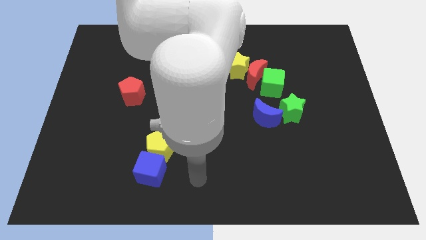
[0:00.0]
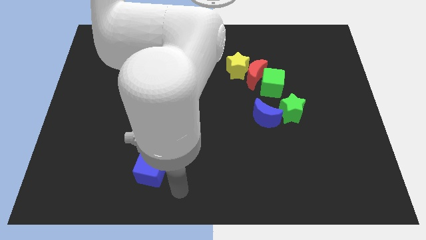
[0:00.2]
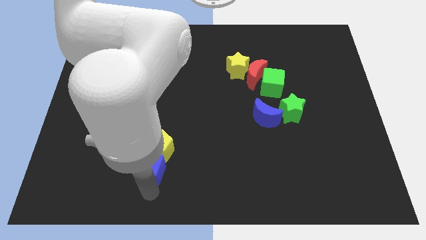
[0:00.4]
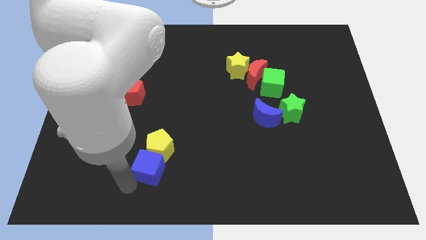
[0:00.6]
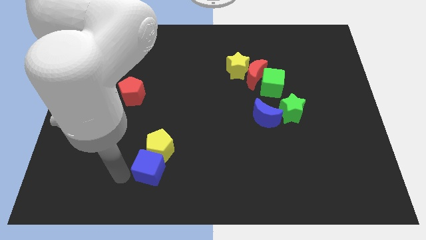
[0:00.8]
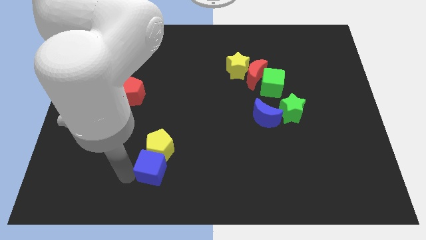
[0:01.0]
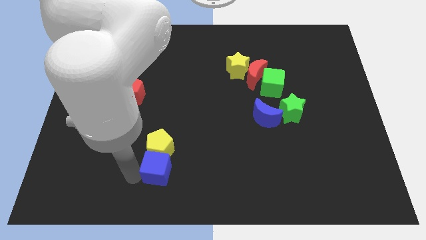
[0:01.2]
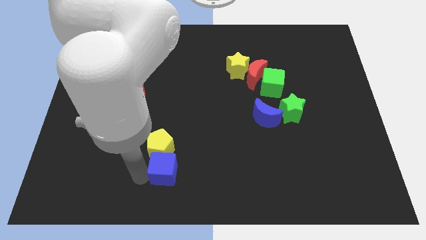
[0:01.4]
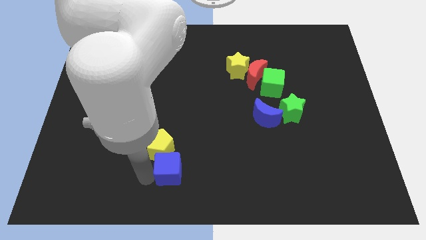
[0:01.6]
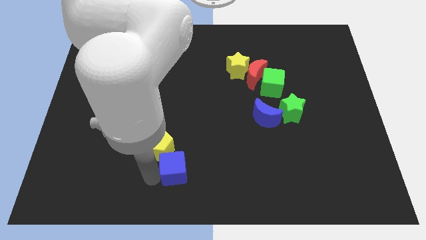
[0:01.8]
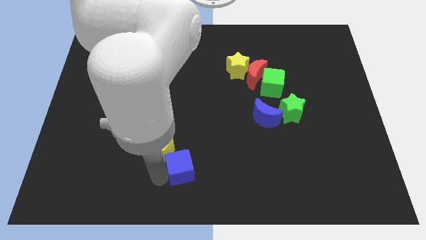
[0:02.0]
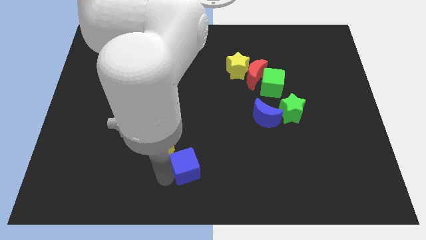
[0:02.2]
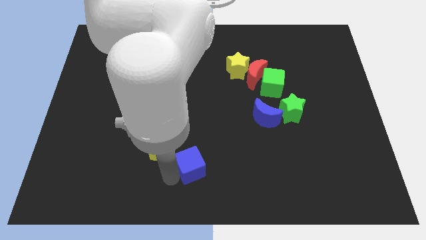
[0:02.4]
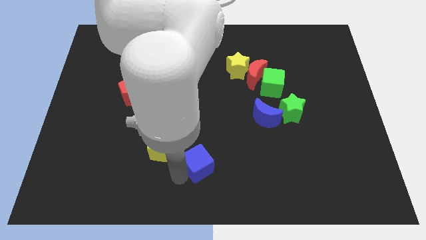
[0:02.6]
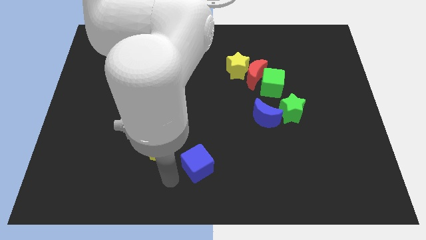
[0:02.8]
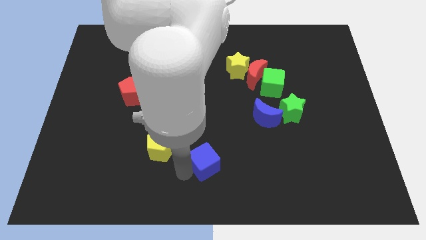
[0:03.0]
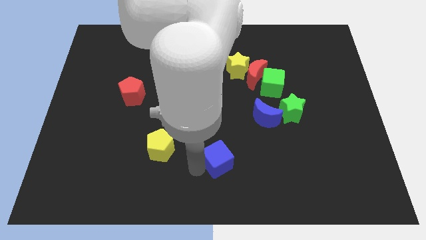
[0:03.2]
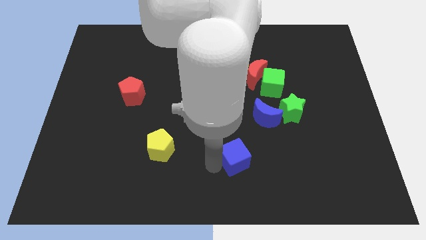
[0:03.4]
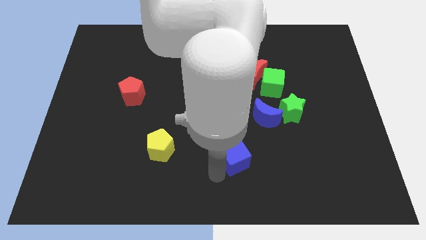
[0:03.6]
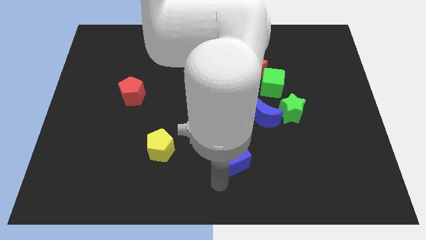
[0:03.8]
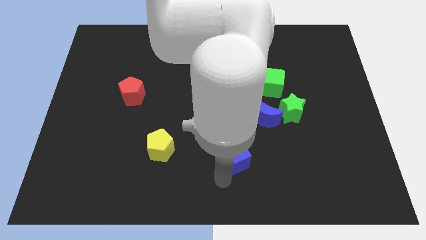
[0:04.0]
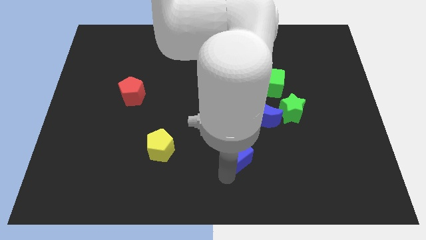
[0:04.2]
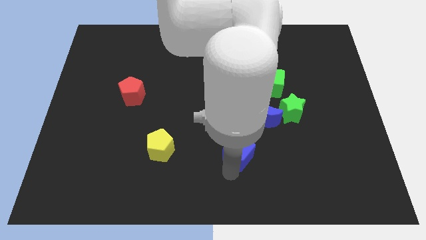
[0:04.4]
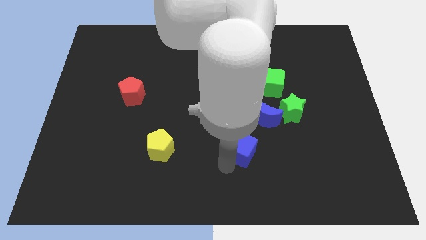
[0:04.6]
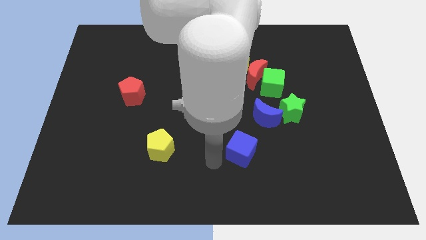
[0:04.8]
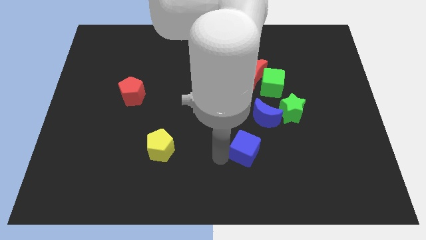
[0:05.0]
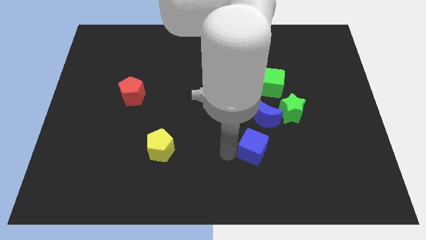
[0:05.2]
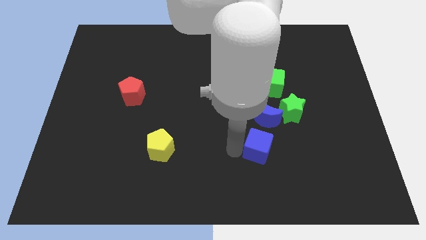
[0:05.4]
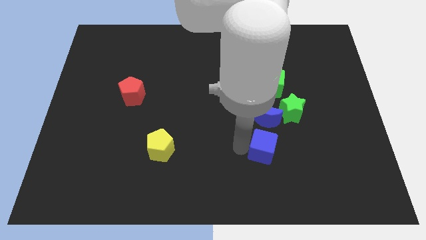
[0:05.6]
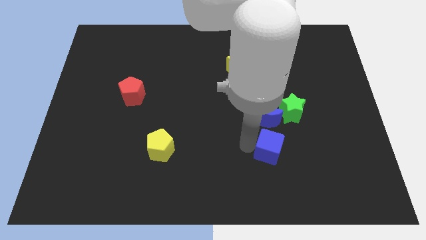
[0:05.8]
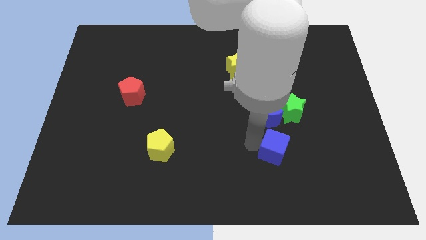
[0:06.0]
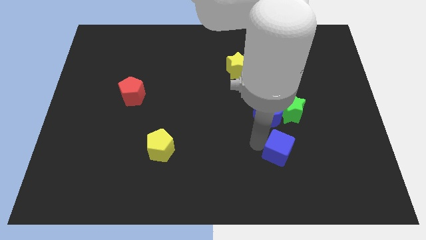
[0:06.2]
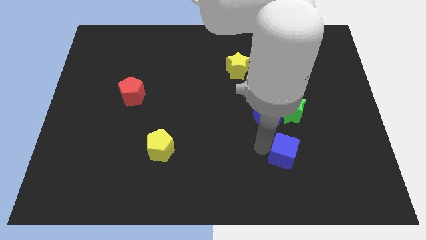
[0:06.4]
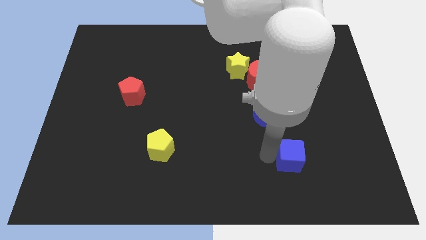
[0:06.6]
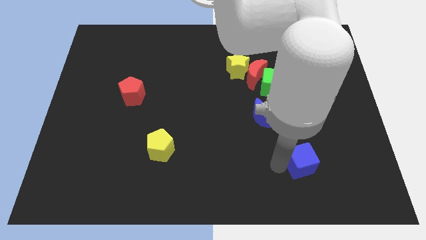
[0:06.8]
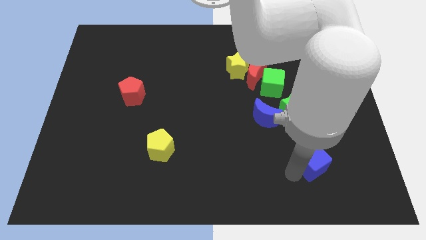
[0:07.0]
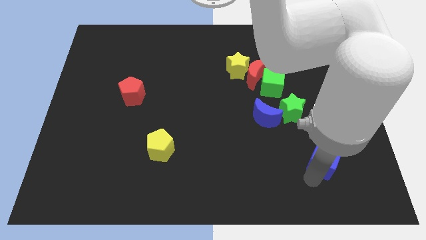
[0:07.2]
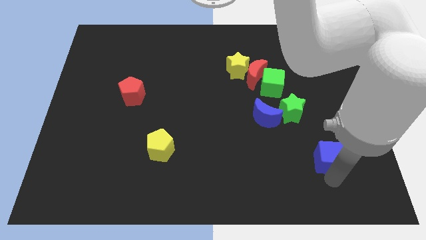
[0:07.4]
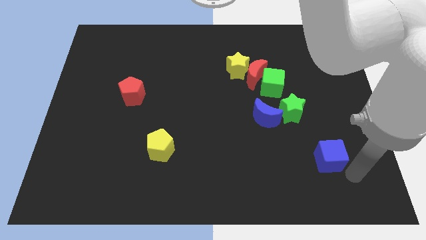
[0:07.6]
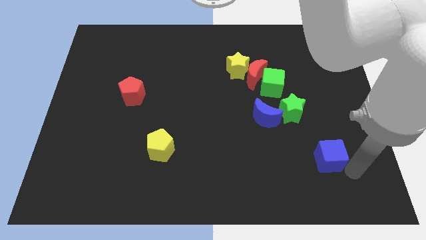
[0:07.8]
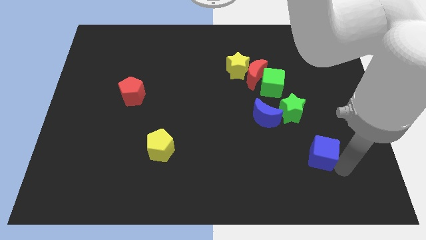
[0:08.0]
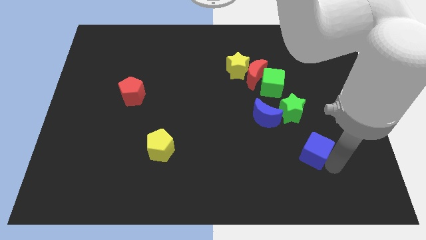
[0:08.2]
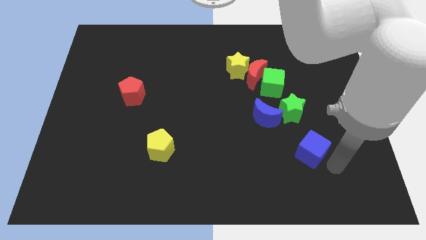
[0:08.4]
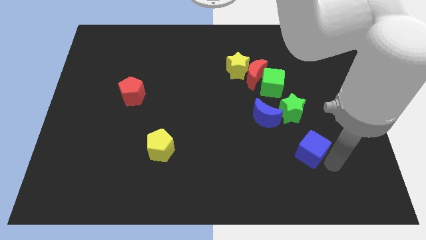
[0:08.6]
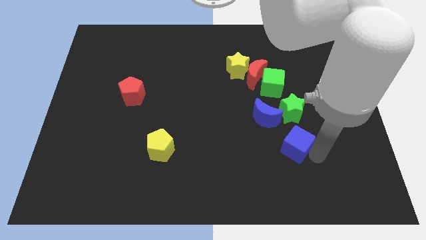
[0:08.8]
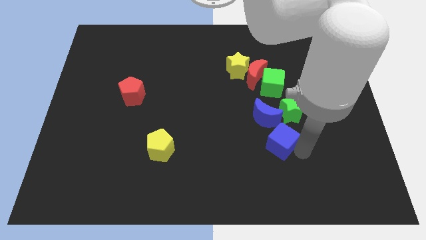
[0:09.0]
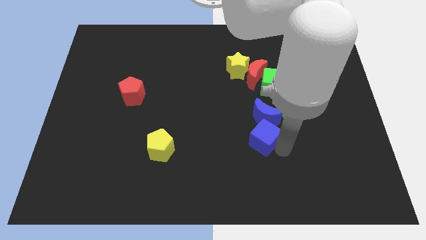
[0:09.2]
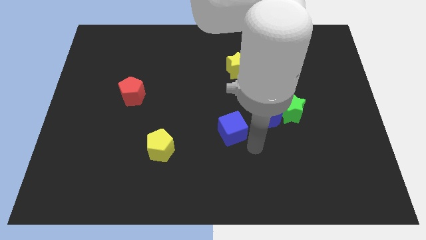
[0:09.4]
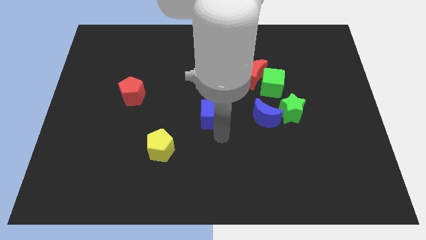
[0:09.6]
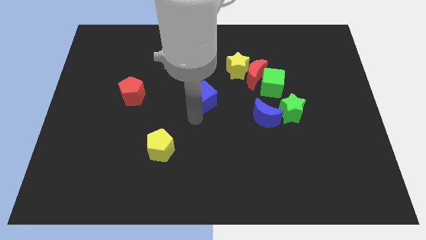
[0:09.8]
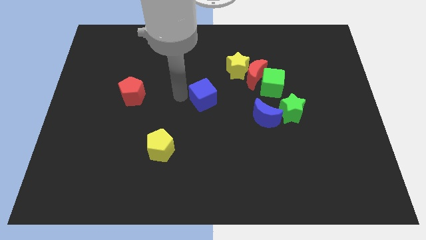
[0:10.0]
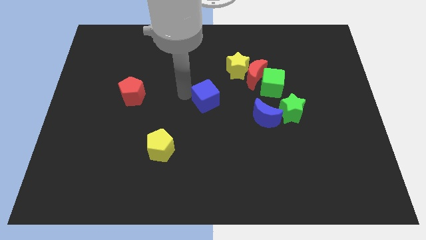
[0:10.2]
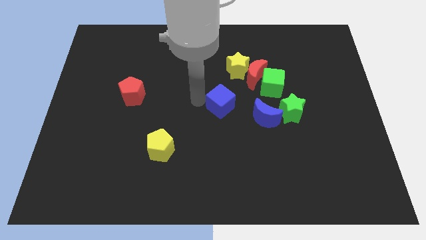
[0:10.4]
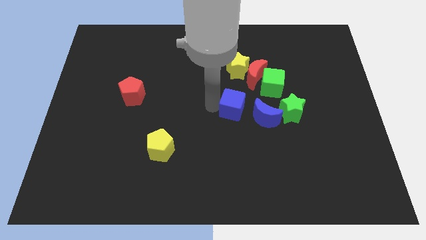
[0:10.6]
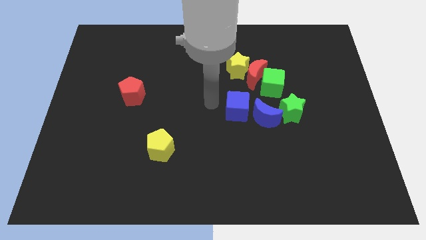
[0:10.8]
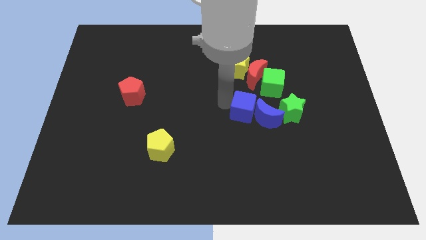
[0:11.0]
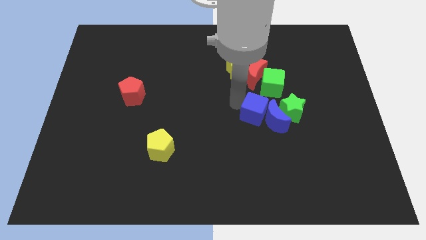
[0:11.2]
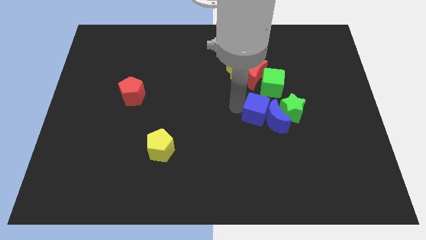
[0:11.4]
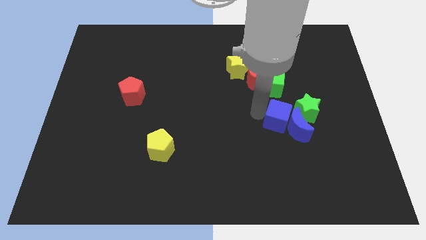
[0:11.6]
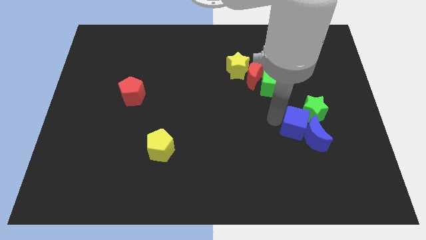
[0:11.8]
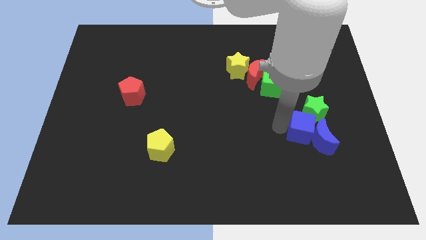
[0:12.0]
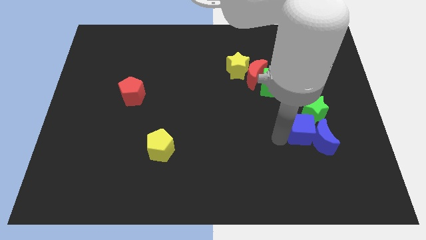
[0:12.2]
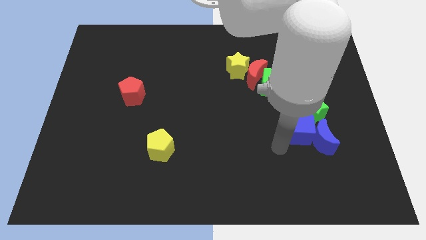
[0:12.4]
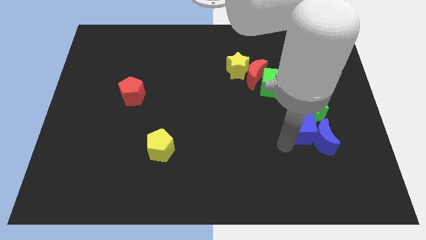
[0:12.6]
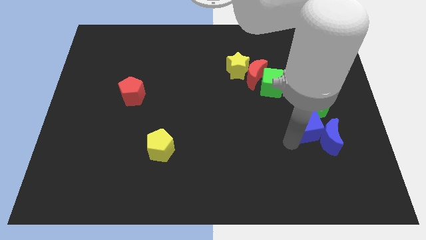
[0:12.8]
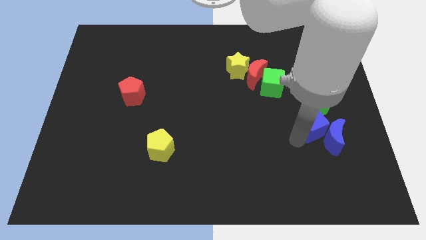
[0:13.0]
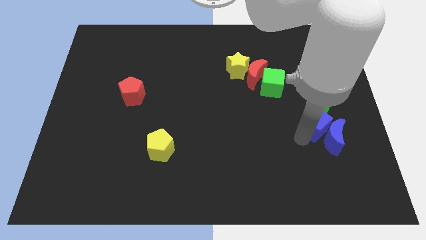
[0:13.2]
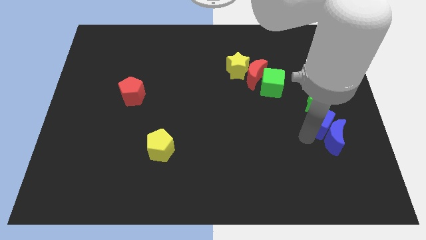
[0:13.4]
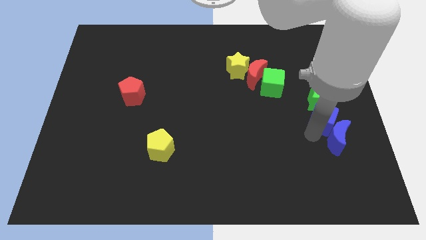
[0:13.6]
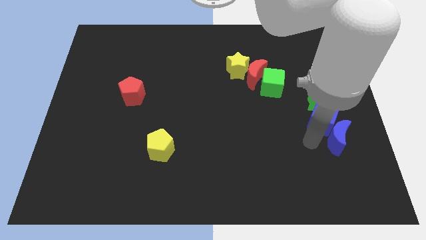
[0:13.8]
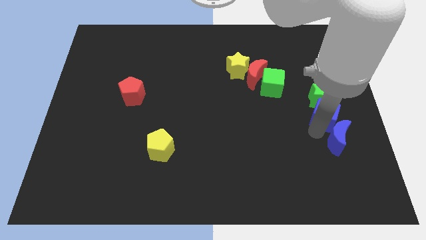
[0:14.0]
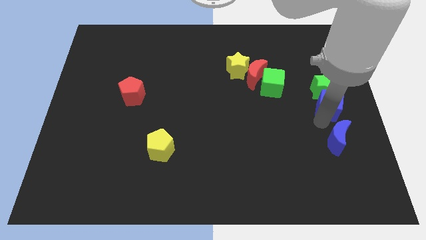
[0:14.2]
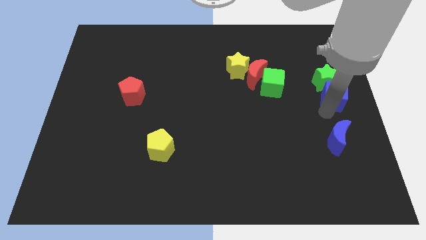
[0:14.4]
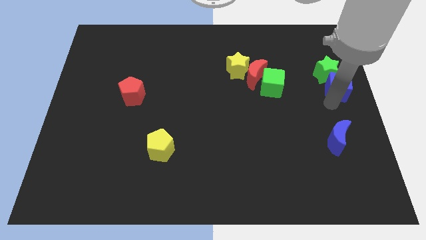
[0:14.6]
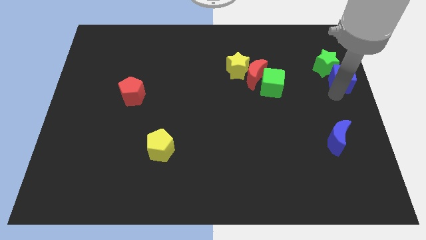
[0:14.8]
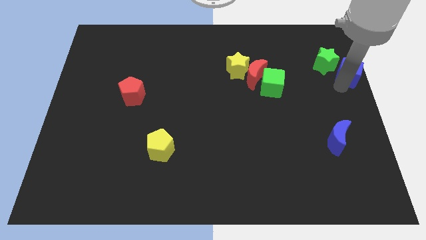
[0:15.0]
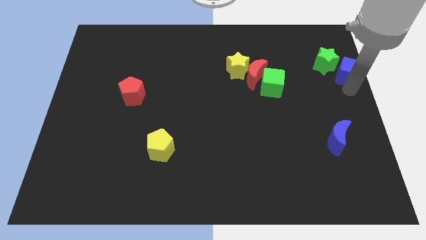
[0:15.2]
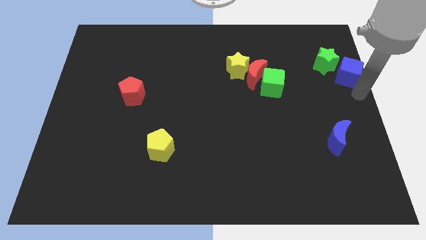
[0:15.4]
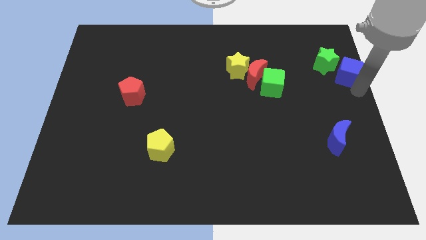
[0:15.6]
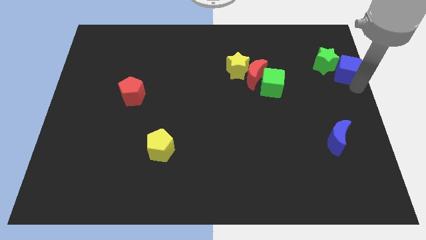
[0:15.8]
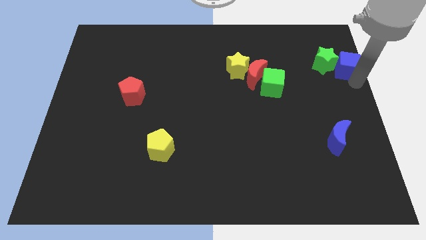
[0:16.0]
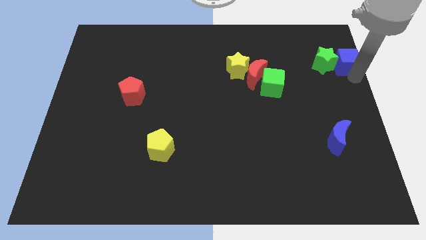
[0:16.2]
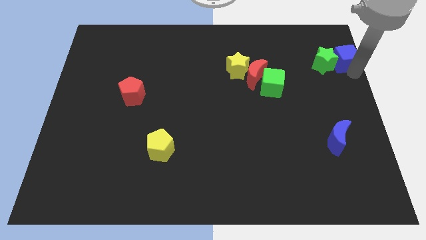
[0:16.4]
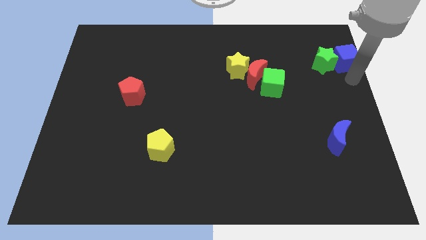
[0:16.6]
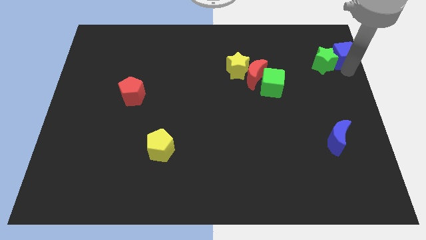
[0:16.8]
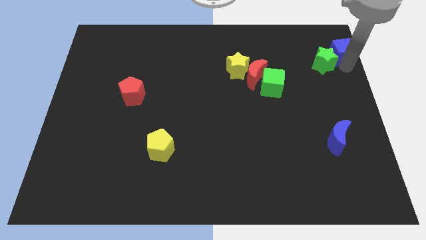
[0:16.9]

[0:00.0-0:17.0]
slide the blue cube to the top right
